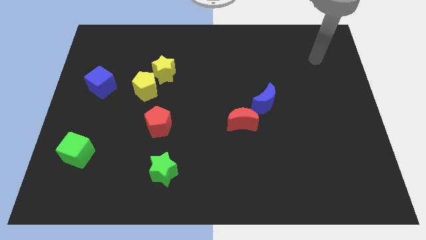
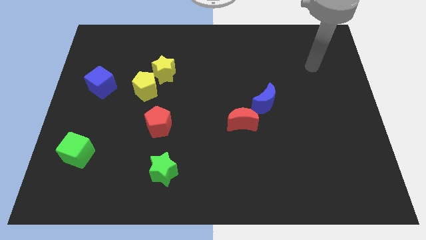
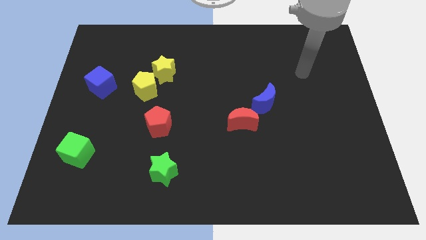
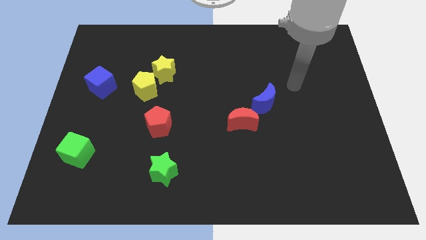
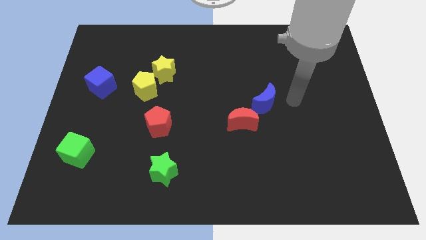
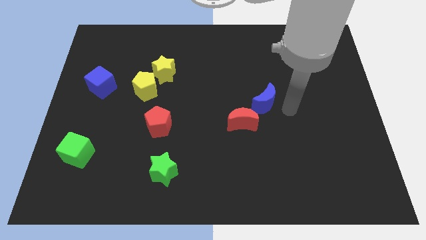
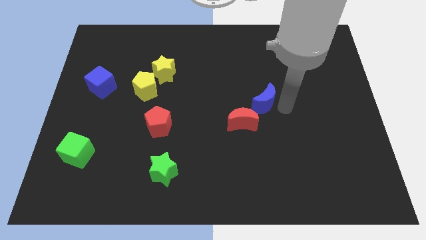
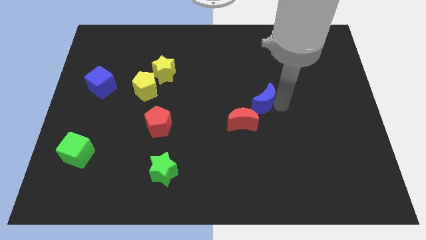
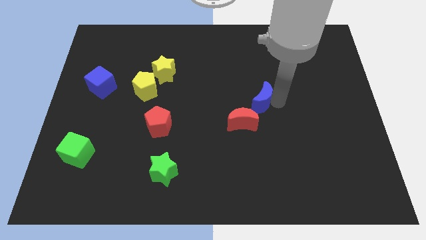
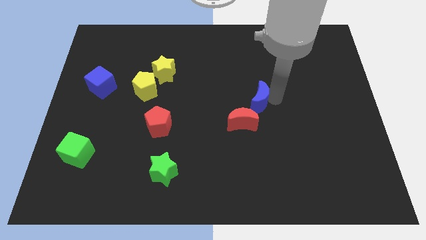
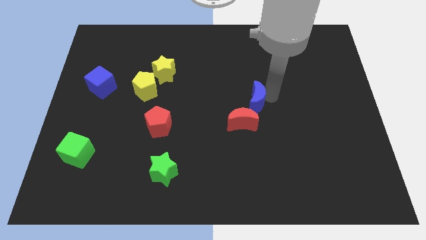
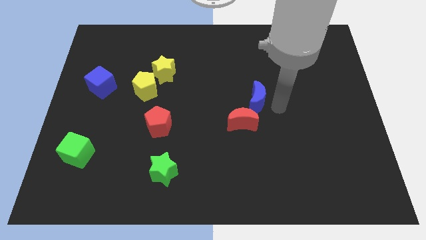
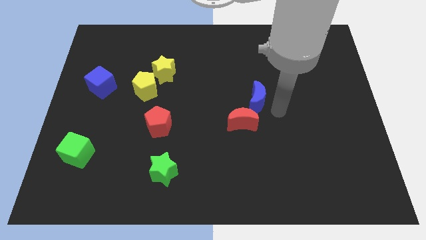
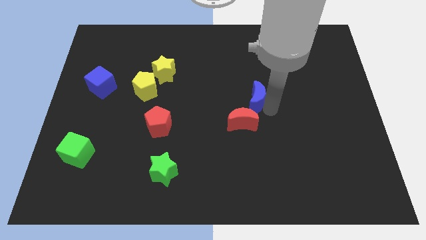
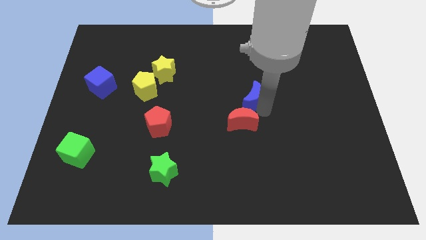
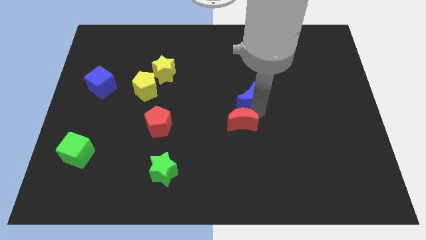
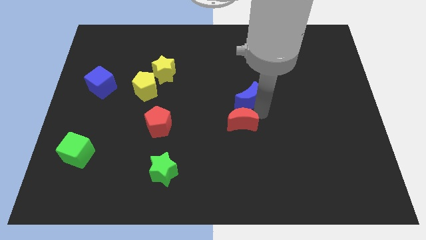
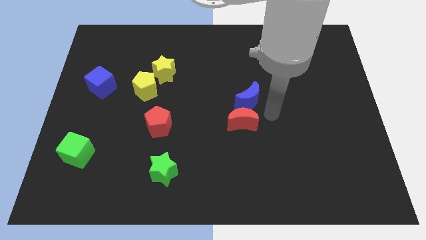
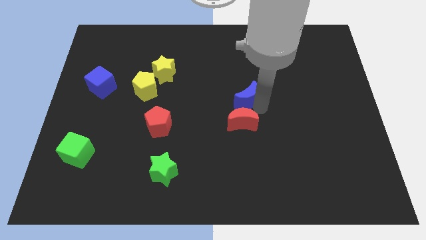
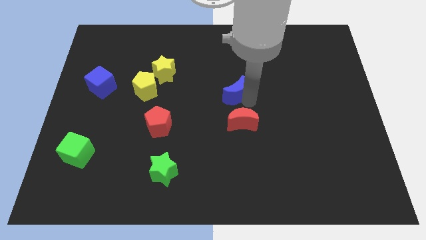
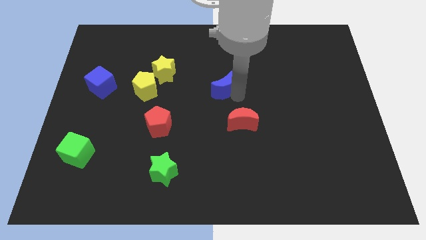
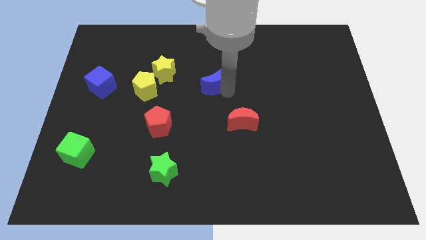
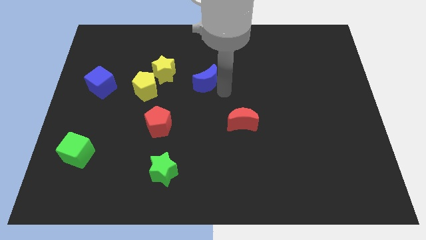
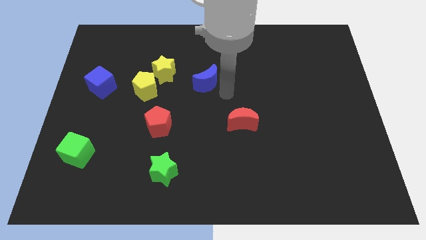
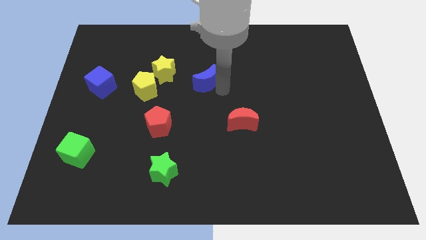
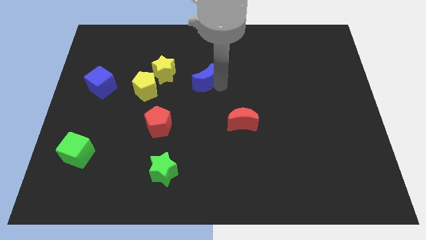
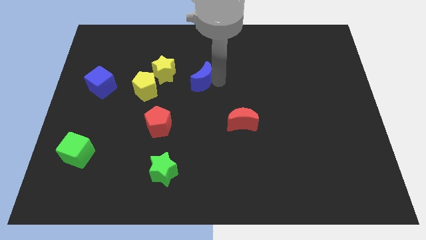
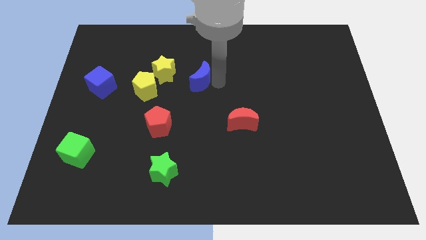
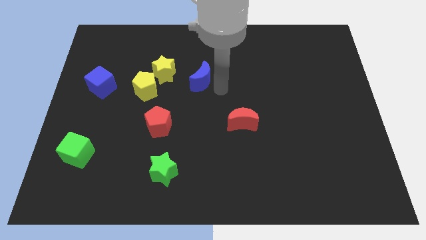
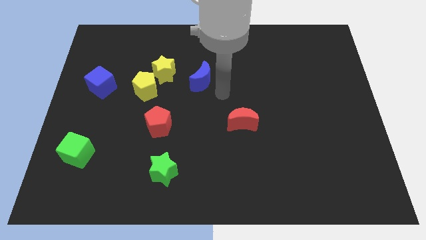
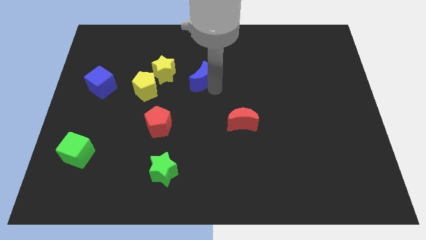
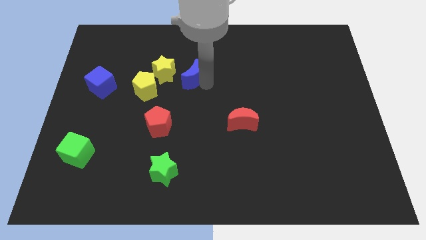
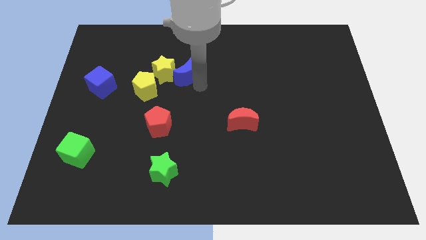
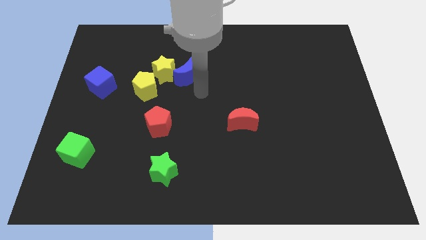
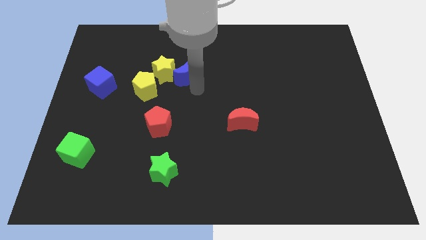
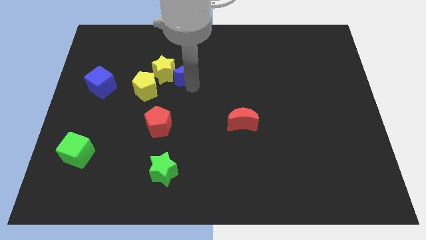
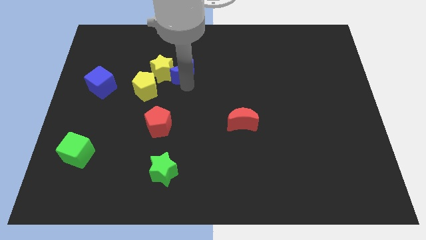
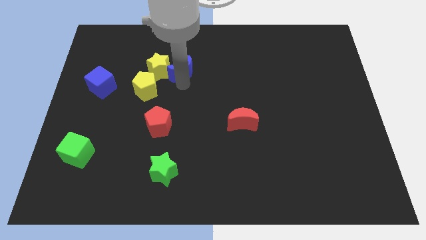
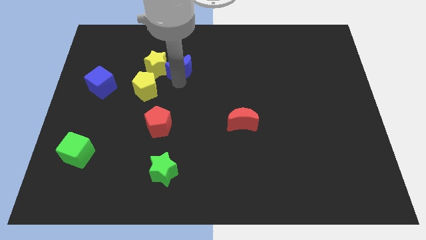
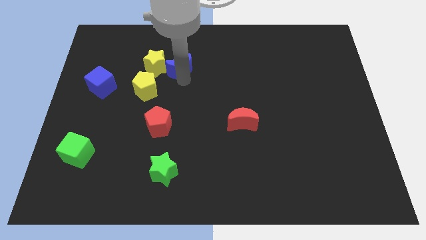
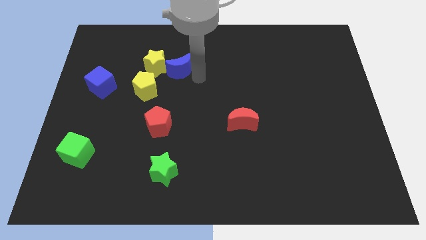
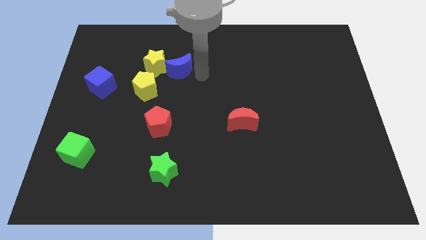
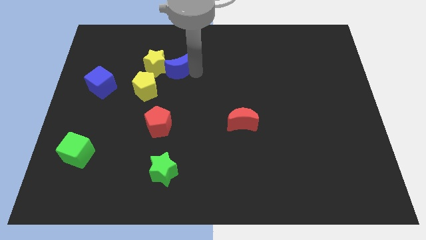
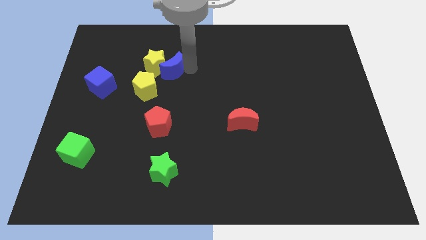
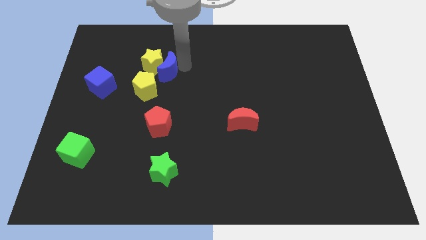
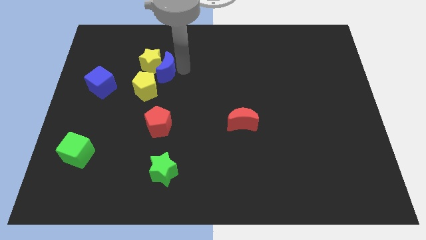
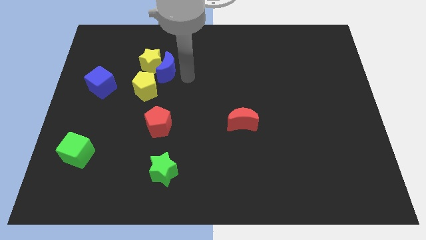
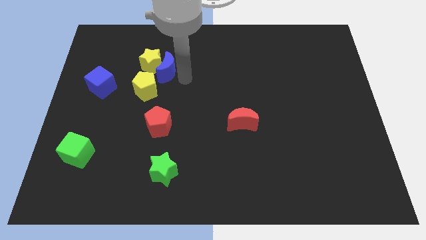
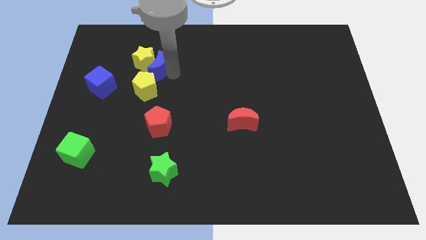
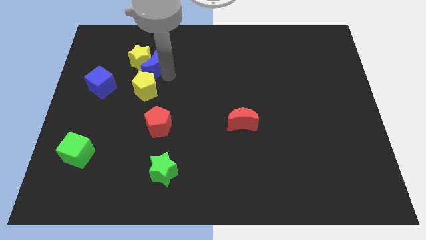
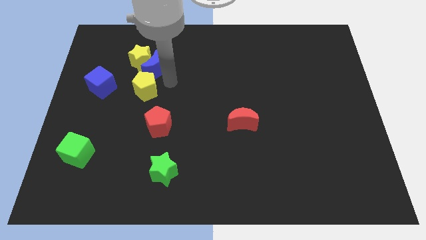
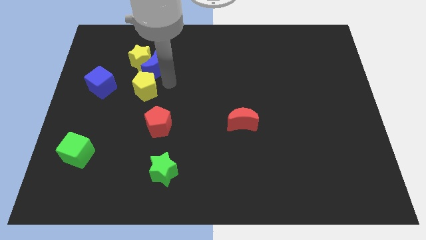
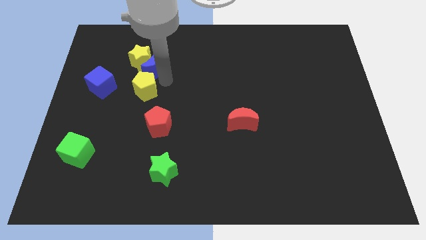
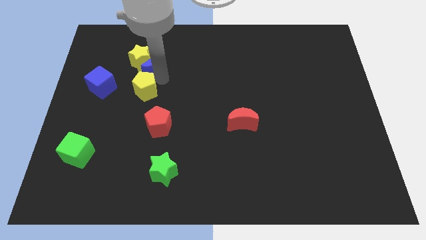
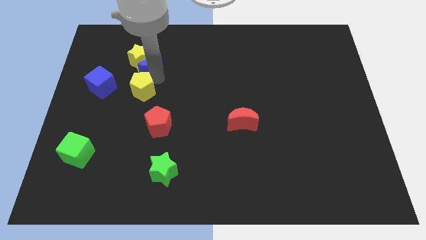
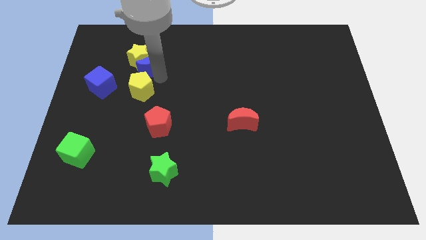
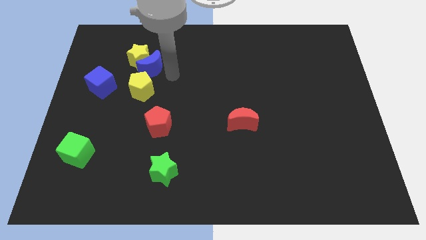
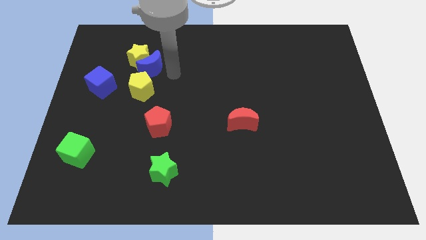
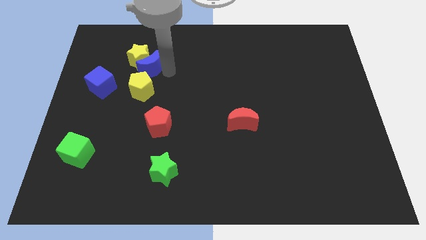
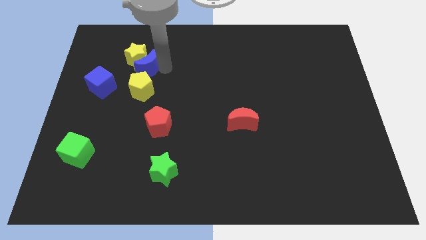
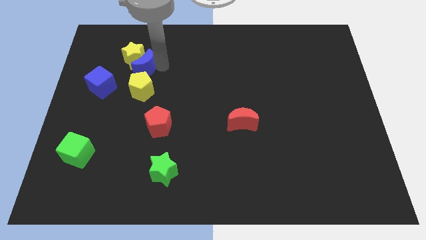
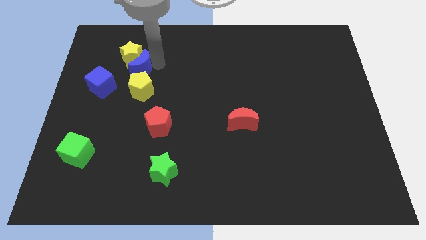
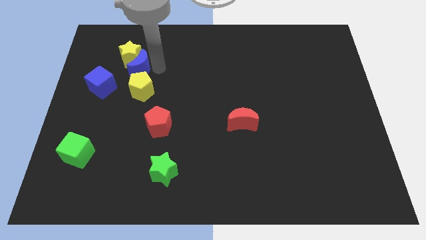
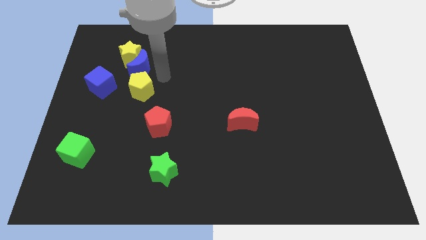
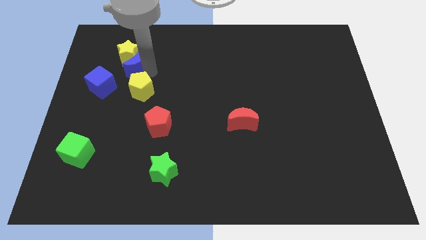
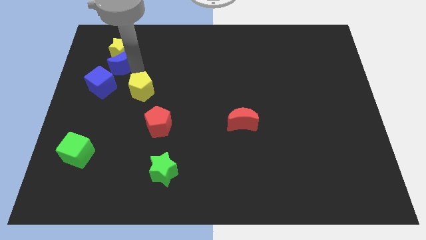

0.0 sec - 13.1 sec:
slide the blue moon to the top of the blue cube

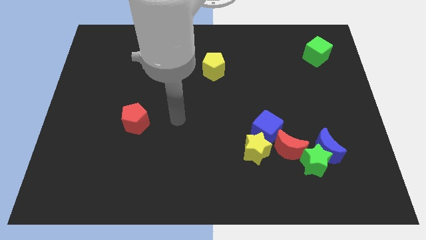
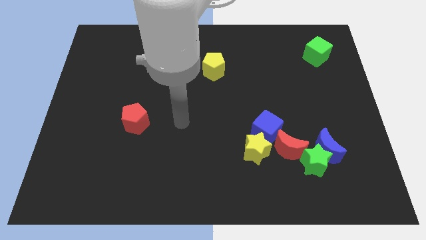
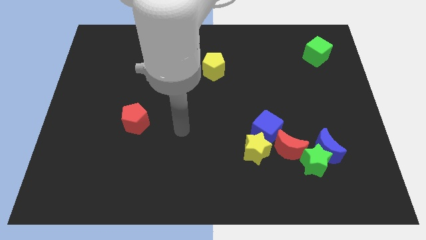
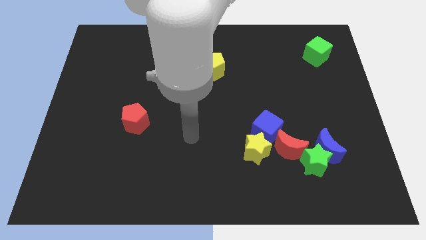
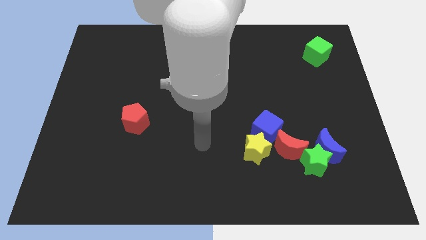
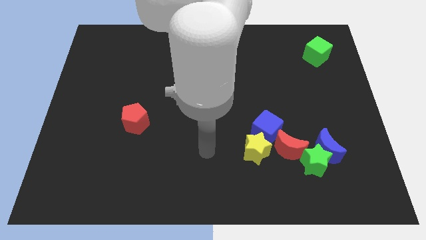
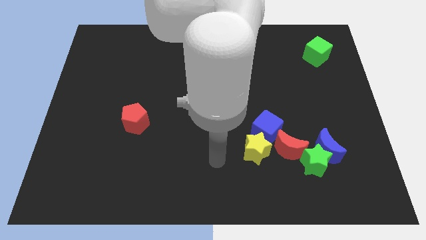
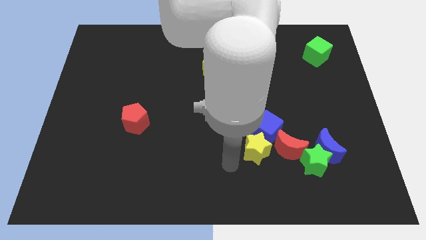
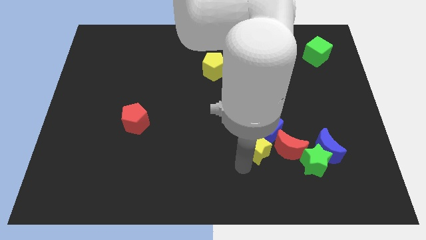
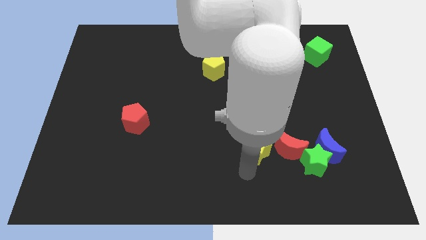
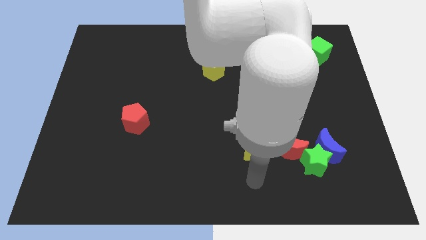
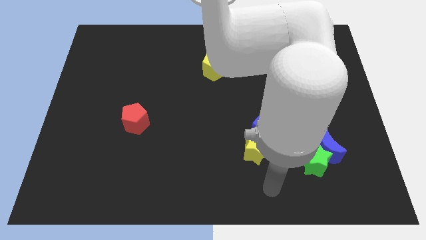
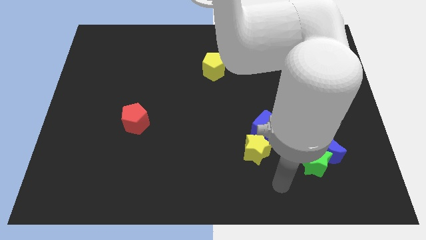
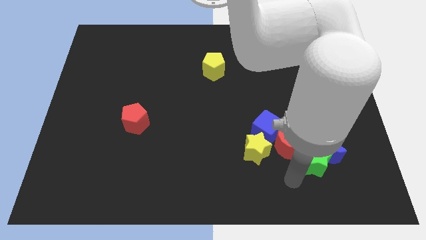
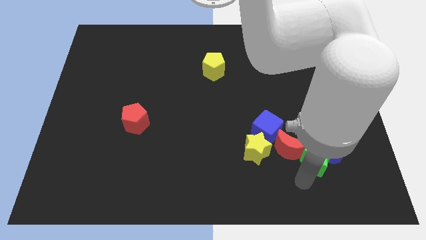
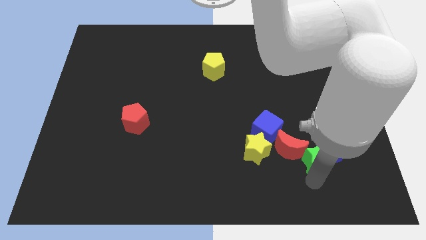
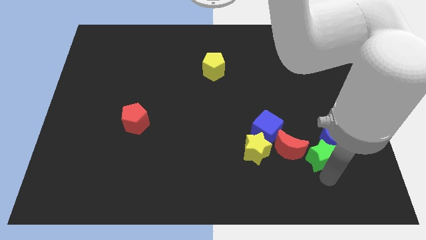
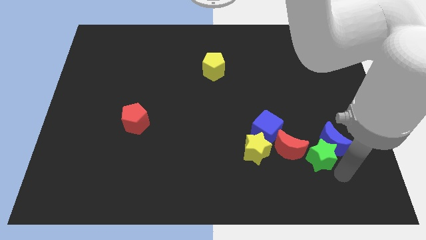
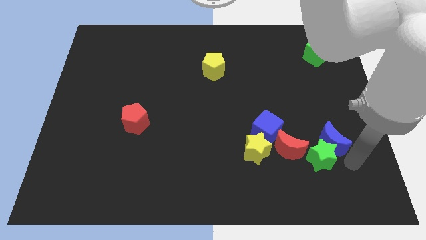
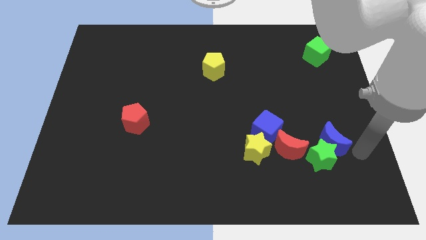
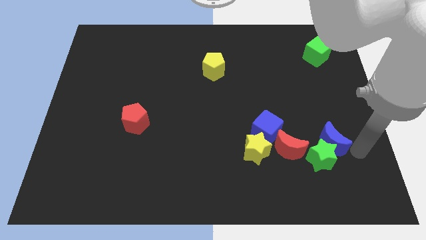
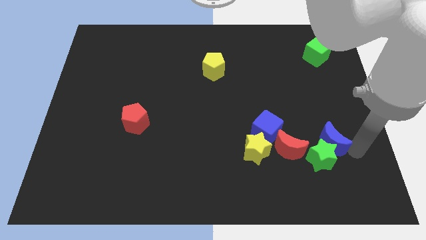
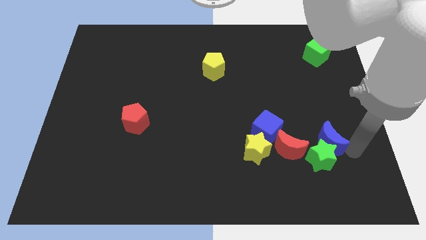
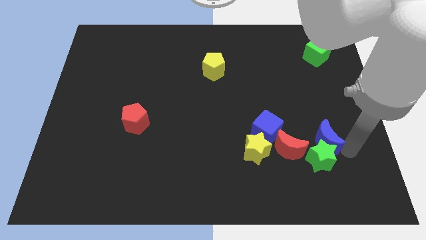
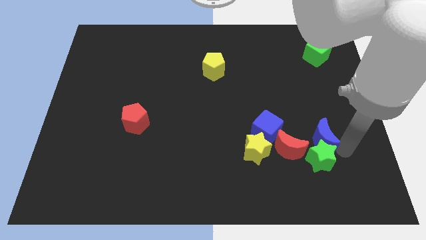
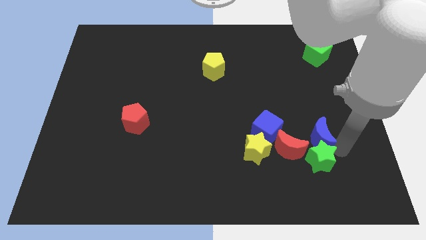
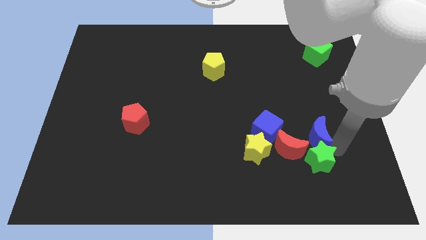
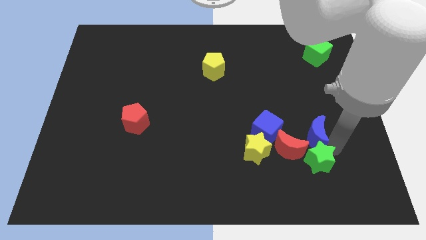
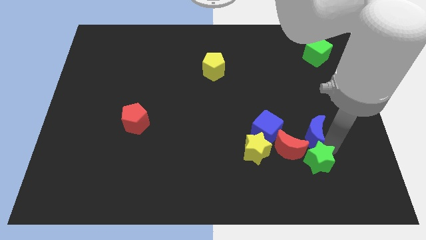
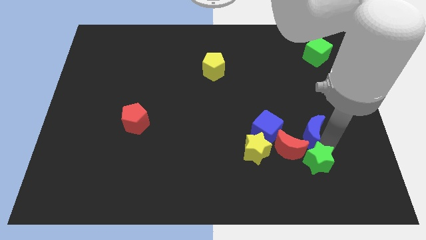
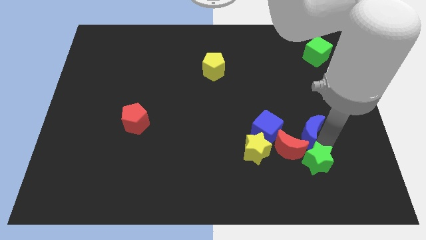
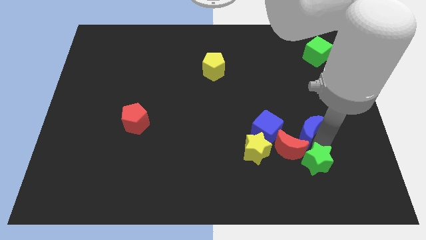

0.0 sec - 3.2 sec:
move the blue moon above the red moon
